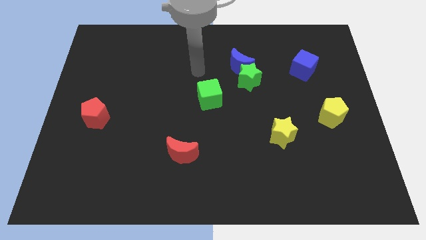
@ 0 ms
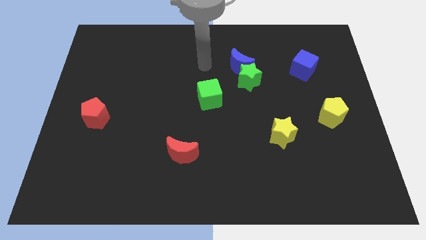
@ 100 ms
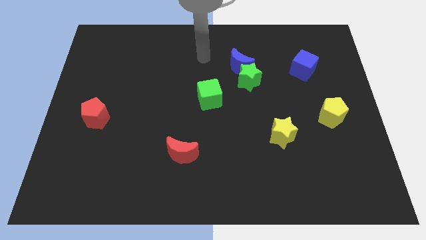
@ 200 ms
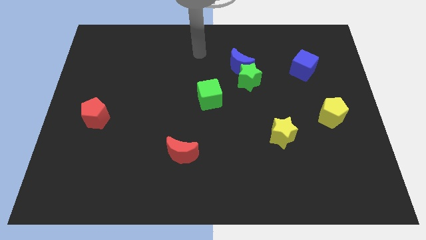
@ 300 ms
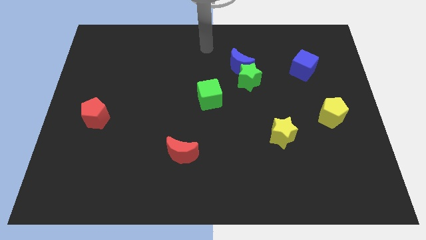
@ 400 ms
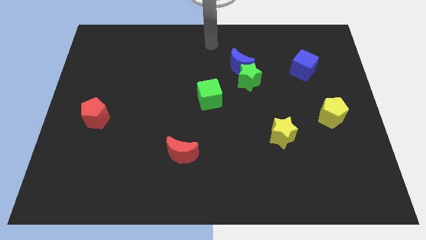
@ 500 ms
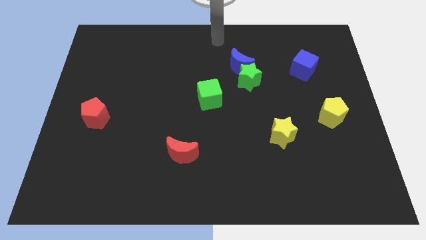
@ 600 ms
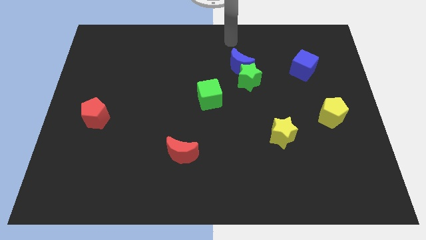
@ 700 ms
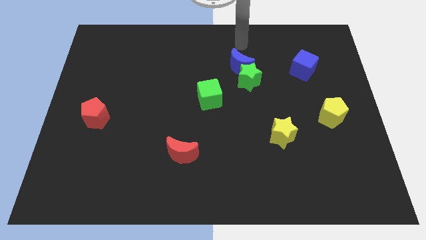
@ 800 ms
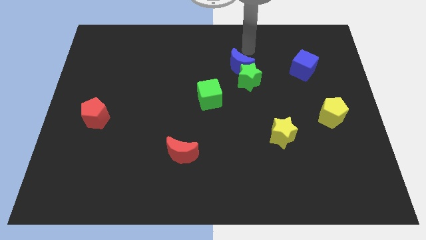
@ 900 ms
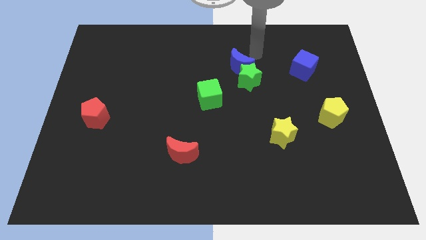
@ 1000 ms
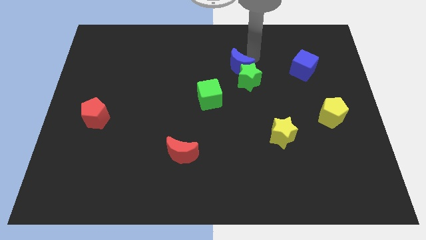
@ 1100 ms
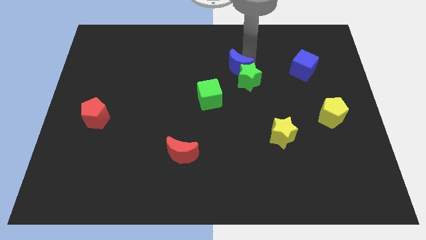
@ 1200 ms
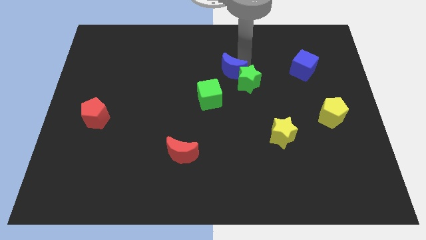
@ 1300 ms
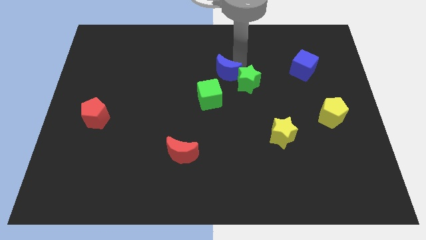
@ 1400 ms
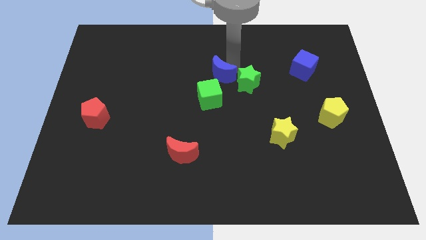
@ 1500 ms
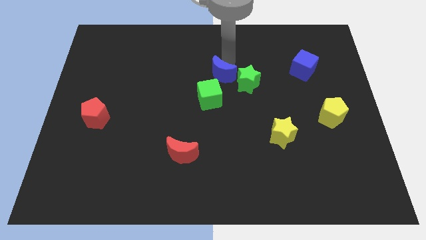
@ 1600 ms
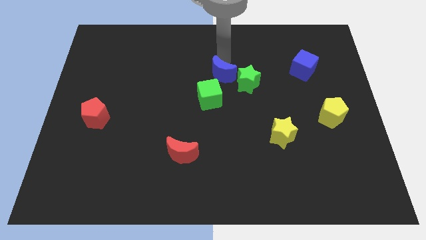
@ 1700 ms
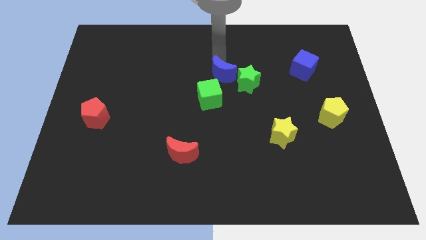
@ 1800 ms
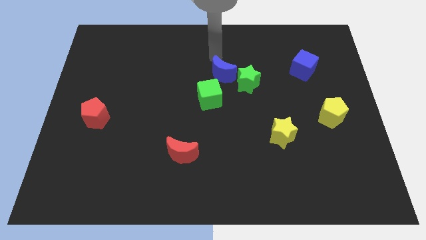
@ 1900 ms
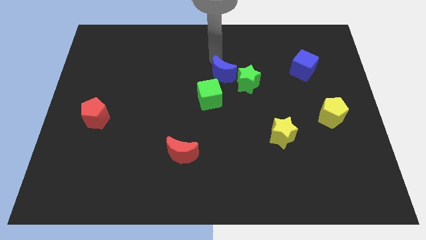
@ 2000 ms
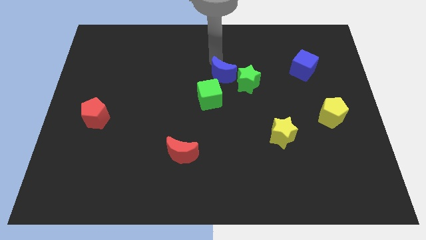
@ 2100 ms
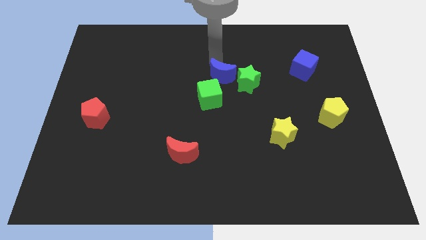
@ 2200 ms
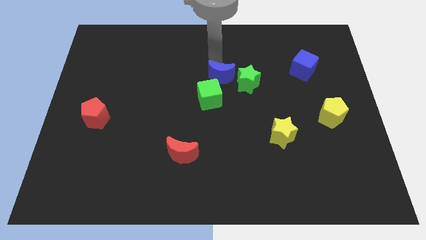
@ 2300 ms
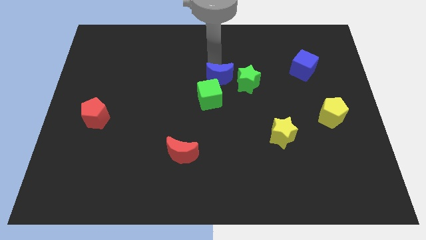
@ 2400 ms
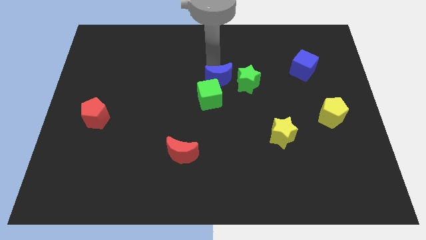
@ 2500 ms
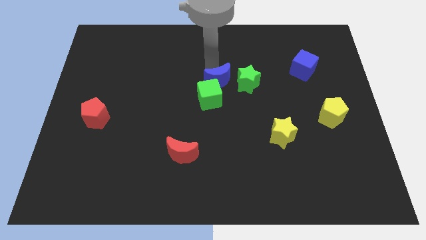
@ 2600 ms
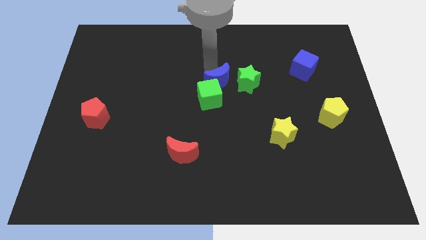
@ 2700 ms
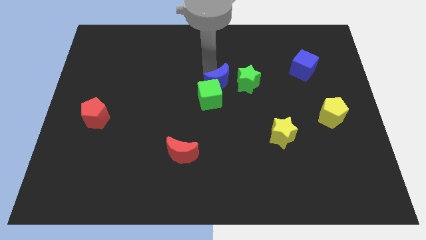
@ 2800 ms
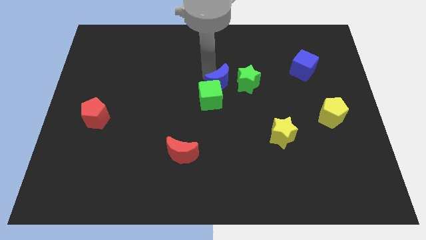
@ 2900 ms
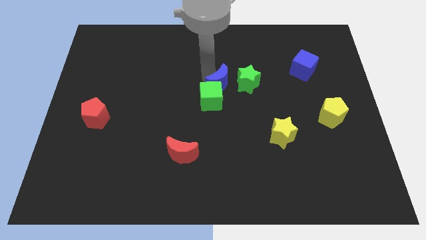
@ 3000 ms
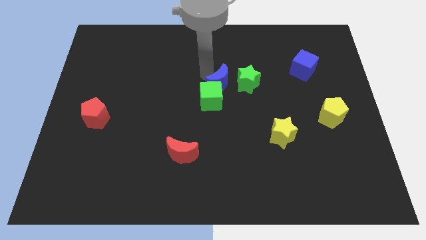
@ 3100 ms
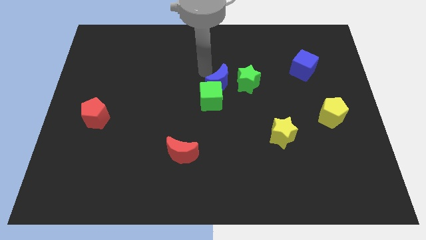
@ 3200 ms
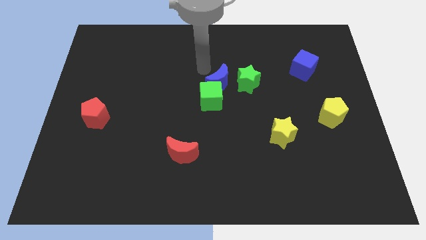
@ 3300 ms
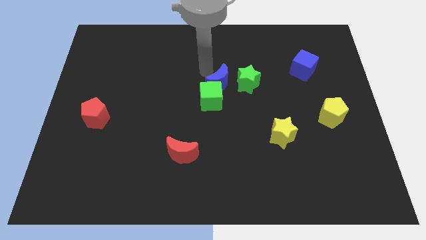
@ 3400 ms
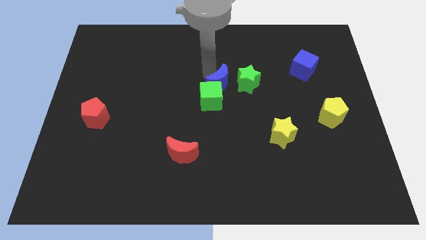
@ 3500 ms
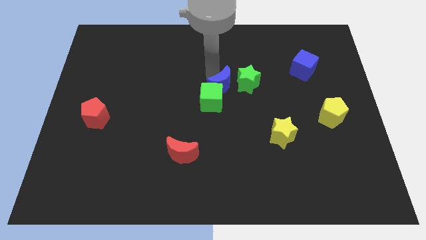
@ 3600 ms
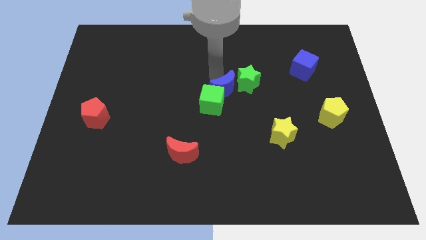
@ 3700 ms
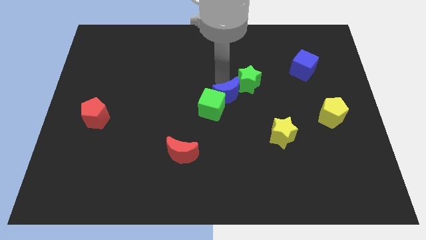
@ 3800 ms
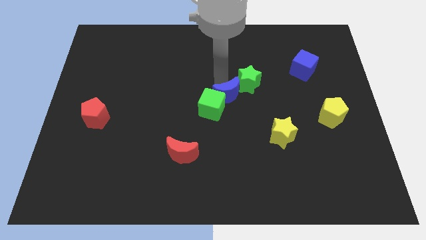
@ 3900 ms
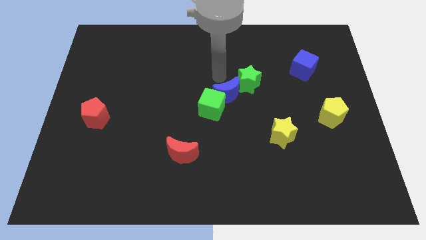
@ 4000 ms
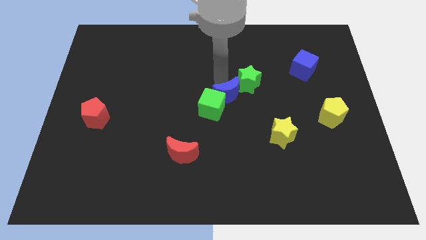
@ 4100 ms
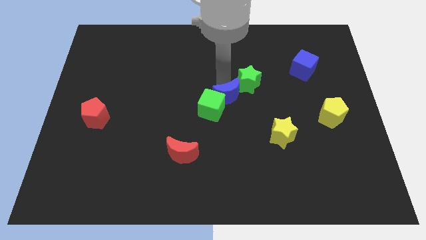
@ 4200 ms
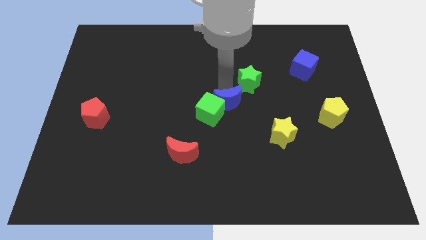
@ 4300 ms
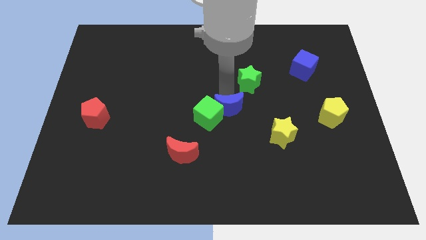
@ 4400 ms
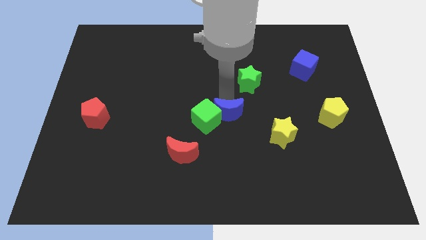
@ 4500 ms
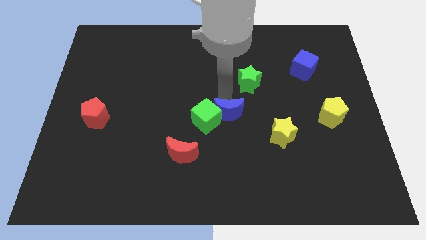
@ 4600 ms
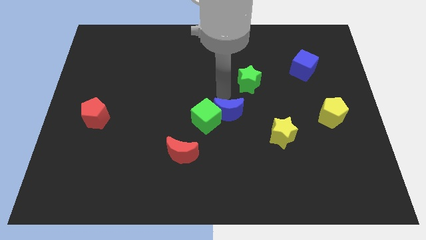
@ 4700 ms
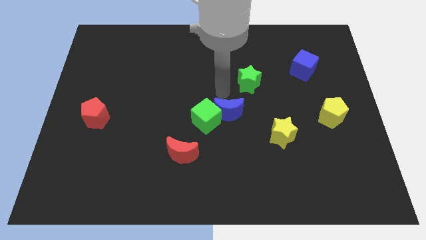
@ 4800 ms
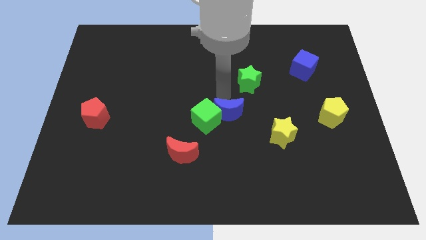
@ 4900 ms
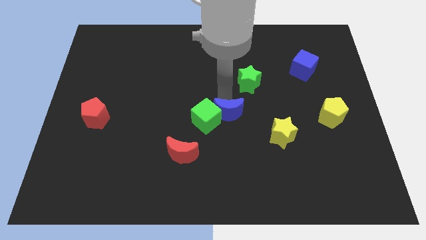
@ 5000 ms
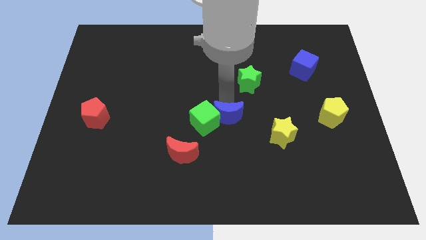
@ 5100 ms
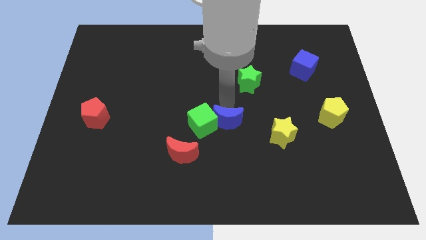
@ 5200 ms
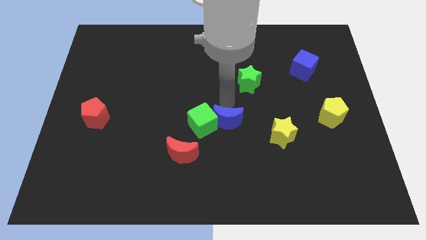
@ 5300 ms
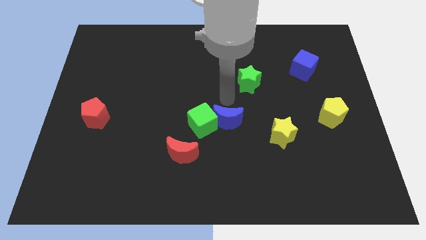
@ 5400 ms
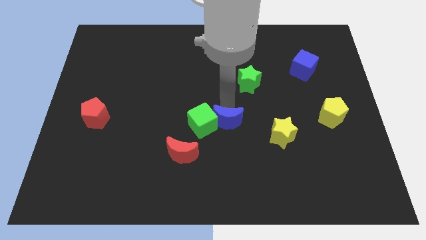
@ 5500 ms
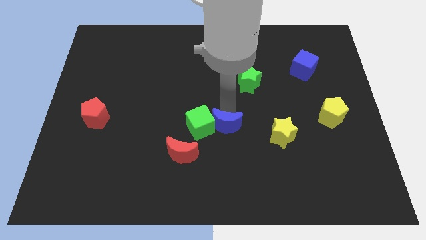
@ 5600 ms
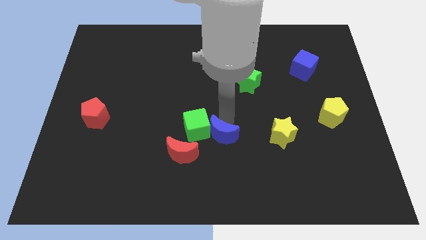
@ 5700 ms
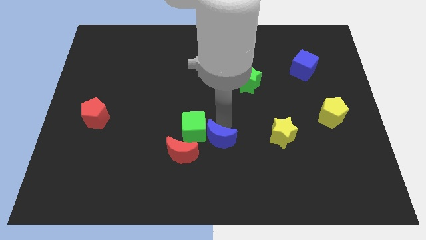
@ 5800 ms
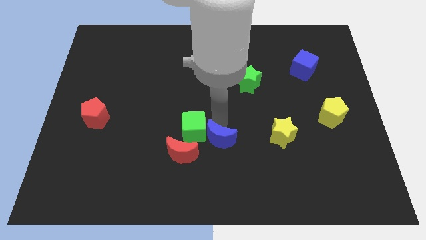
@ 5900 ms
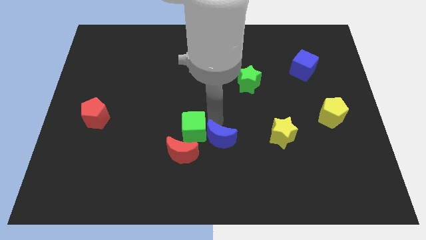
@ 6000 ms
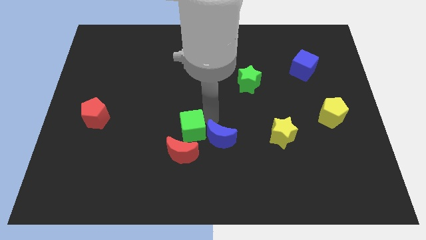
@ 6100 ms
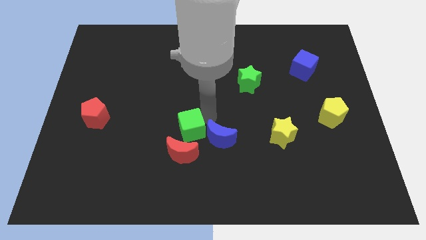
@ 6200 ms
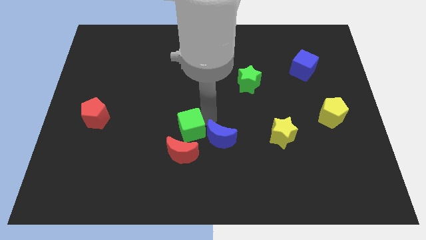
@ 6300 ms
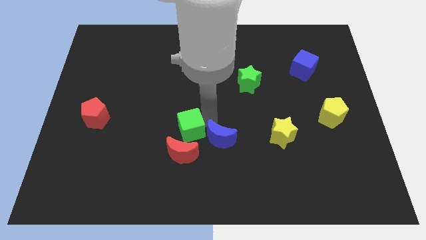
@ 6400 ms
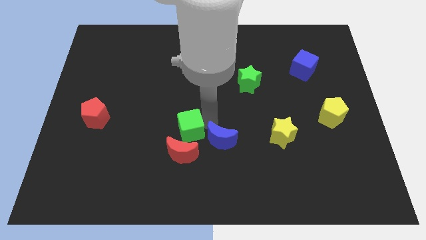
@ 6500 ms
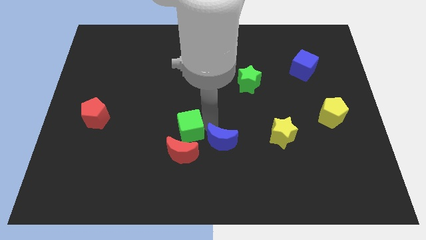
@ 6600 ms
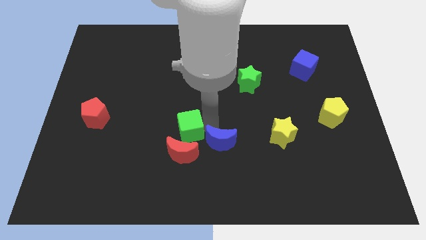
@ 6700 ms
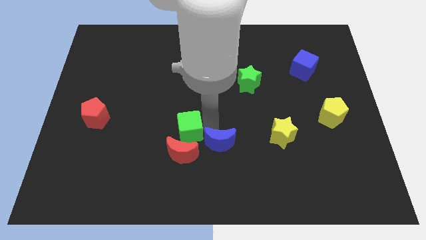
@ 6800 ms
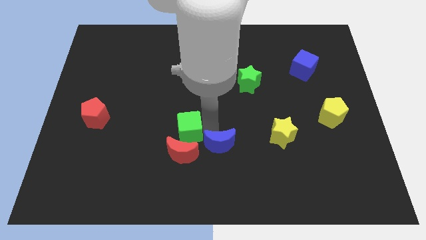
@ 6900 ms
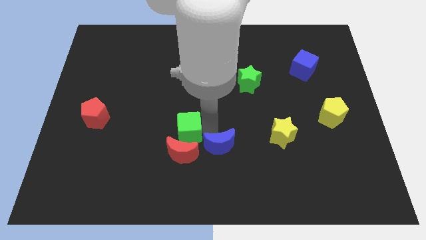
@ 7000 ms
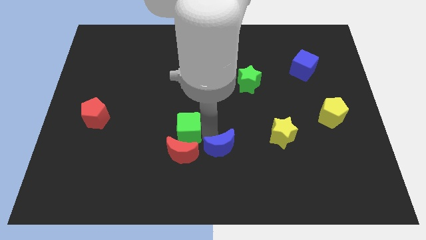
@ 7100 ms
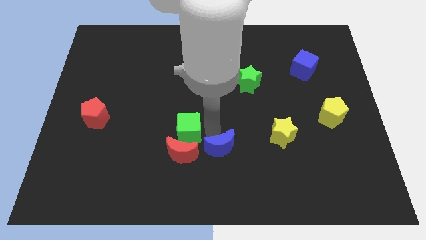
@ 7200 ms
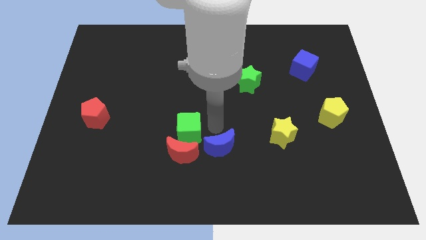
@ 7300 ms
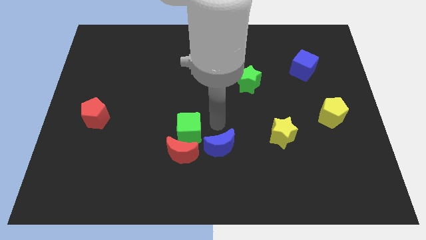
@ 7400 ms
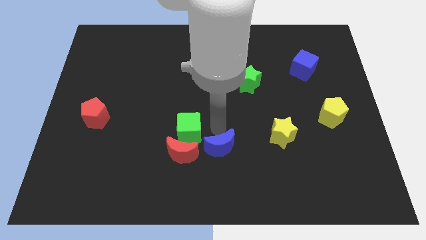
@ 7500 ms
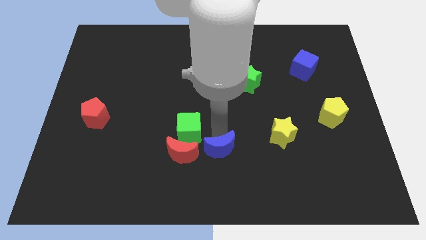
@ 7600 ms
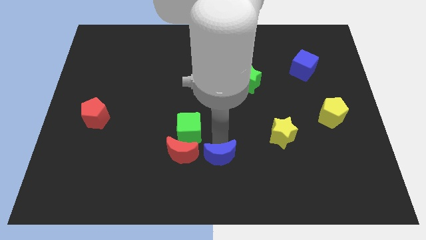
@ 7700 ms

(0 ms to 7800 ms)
put the blue moon to the bottom
